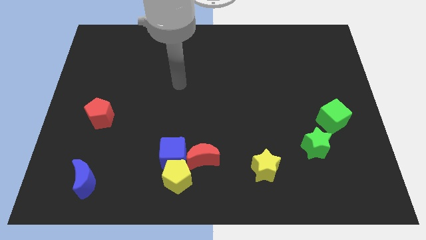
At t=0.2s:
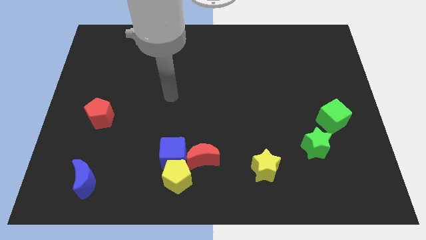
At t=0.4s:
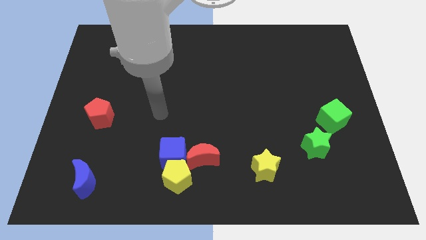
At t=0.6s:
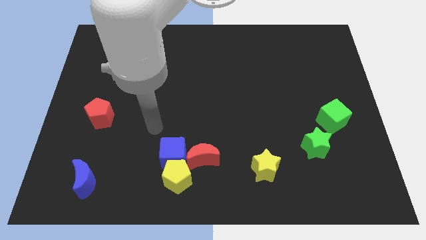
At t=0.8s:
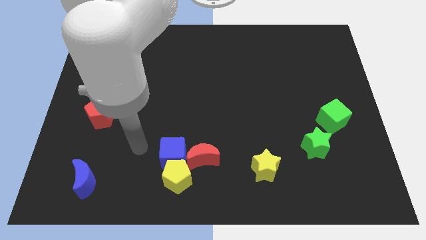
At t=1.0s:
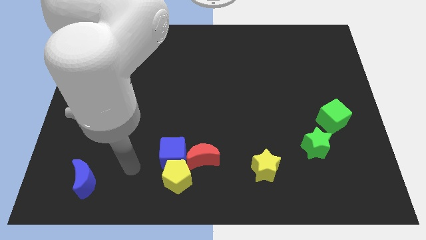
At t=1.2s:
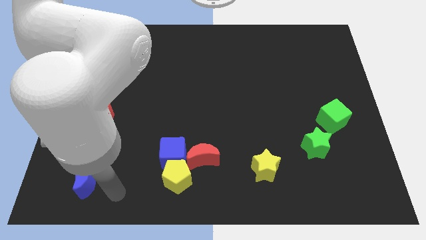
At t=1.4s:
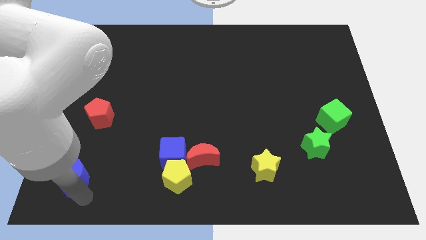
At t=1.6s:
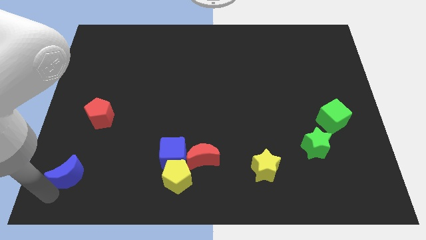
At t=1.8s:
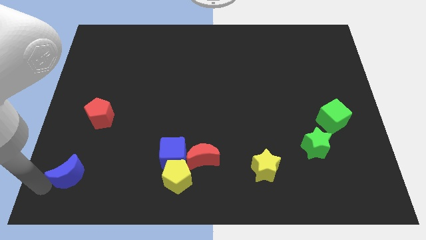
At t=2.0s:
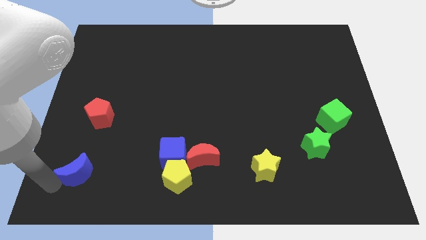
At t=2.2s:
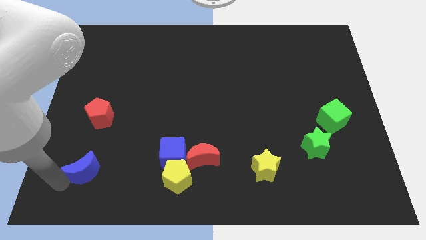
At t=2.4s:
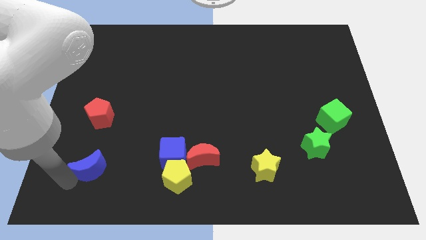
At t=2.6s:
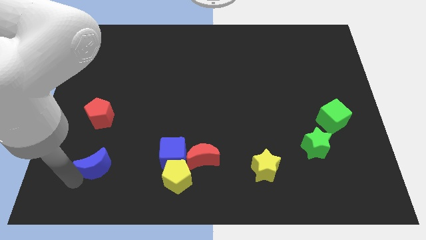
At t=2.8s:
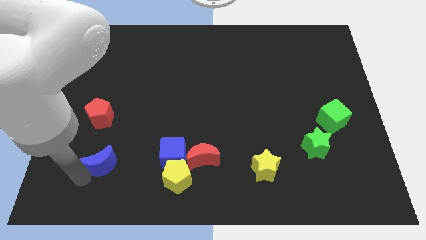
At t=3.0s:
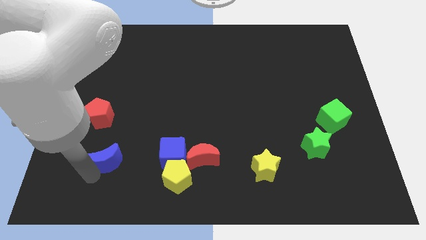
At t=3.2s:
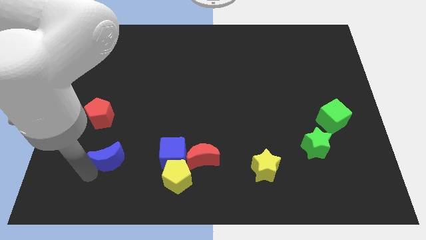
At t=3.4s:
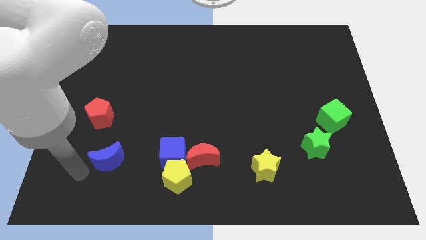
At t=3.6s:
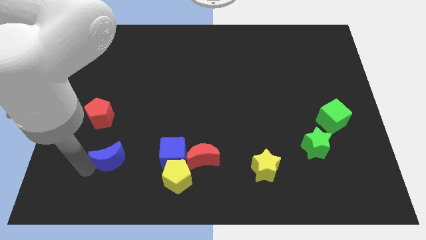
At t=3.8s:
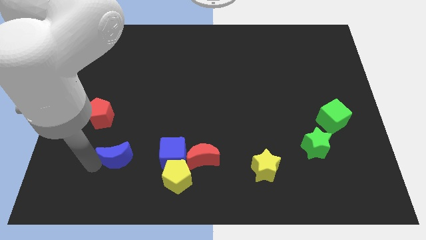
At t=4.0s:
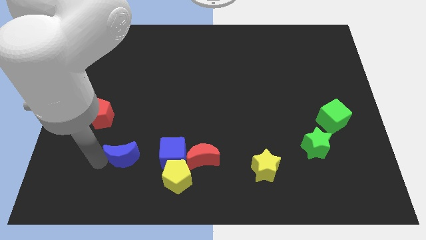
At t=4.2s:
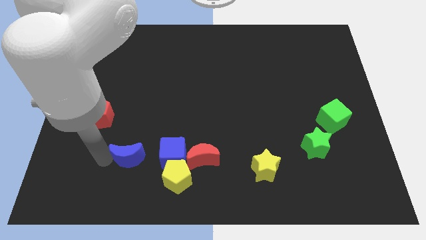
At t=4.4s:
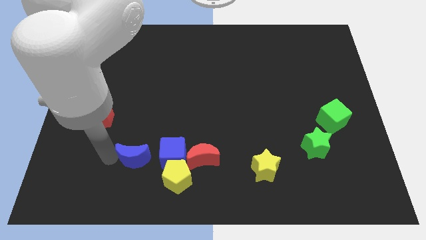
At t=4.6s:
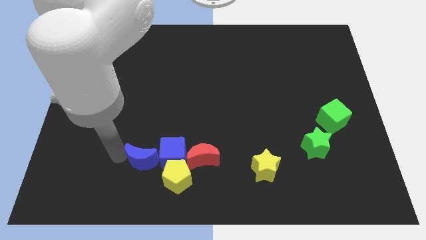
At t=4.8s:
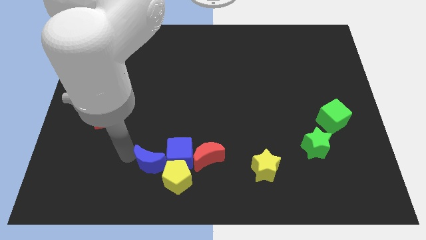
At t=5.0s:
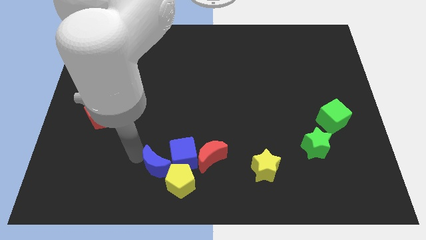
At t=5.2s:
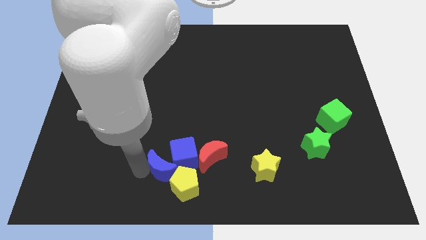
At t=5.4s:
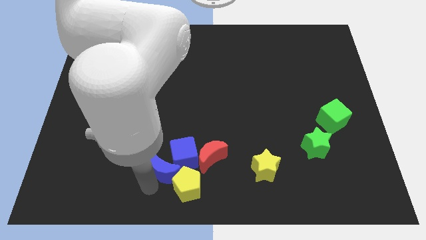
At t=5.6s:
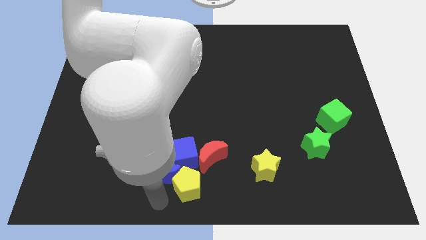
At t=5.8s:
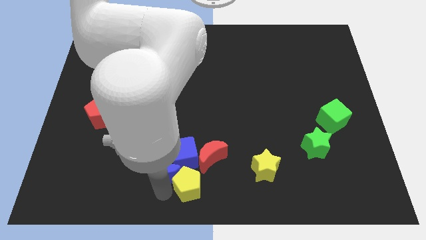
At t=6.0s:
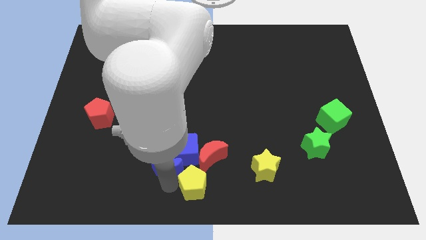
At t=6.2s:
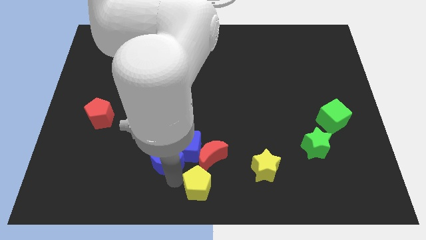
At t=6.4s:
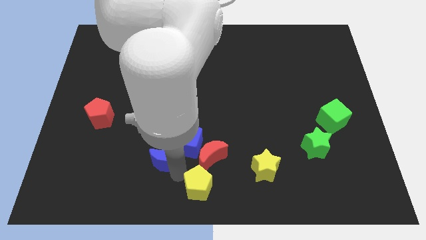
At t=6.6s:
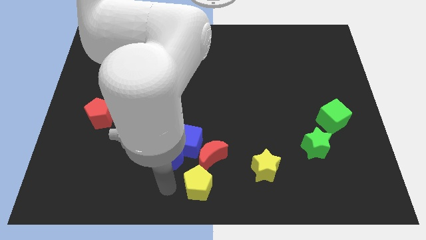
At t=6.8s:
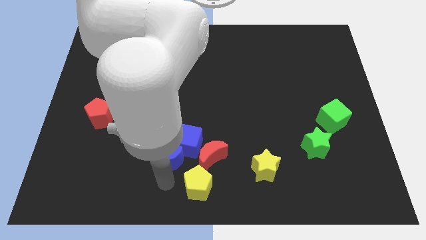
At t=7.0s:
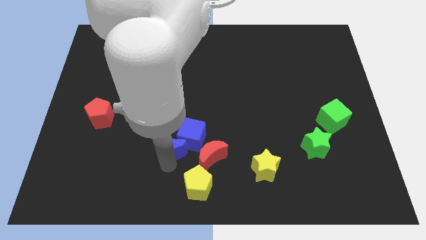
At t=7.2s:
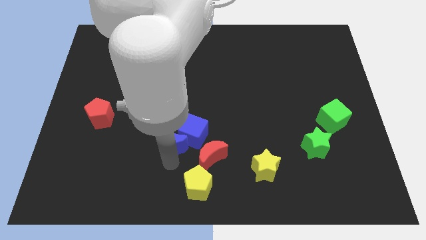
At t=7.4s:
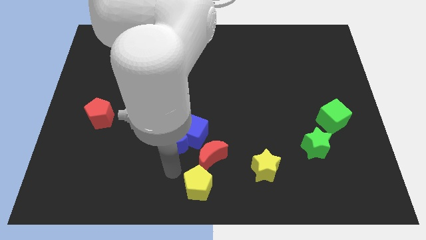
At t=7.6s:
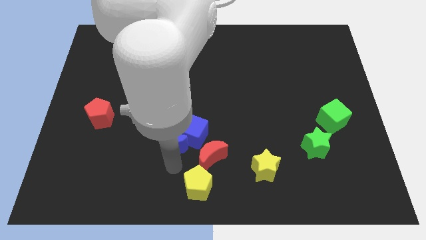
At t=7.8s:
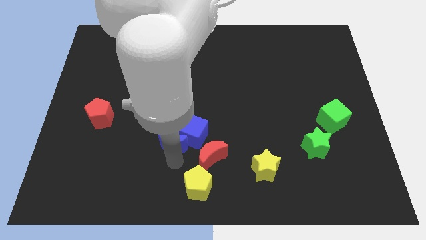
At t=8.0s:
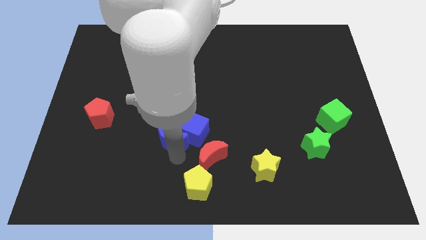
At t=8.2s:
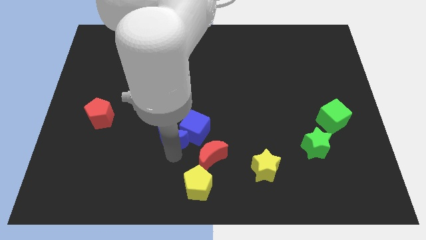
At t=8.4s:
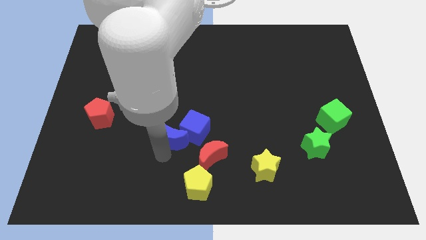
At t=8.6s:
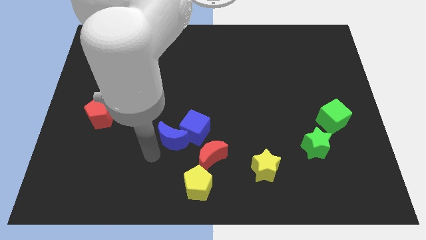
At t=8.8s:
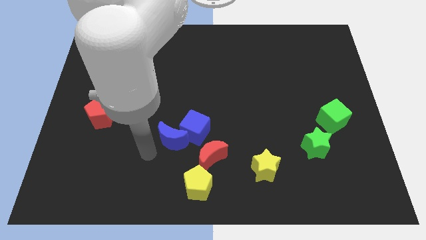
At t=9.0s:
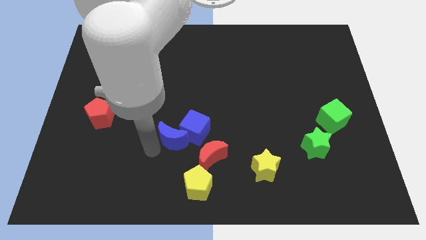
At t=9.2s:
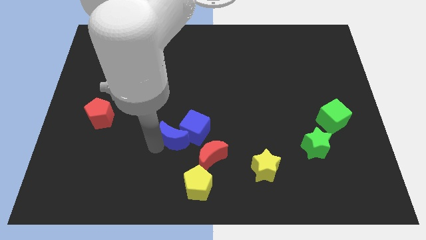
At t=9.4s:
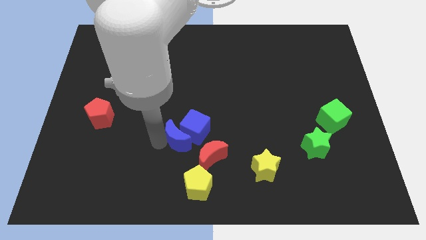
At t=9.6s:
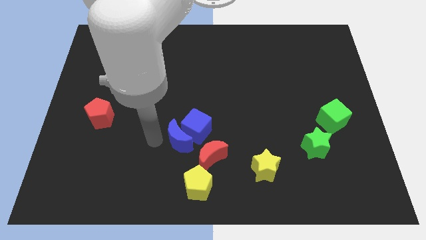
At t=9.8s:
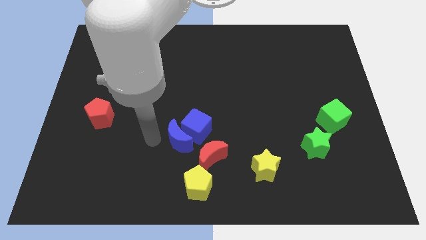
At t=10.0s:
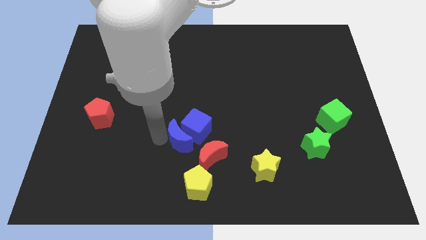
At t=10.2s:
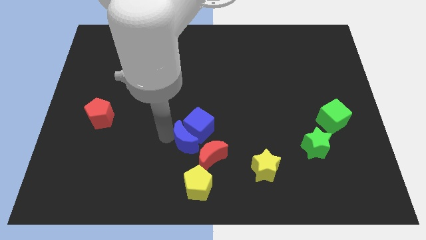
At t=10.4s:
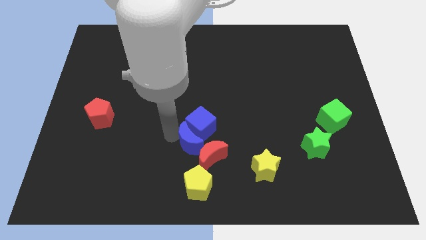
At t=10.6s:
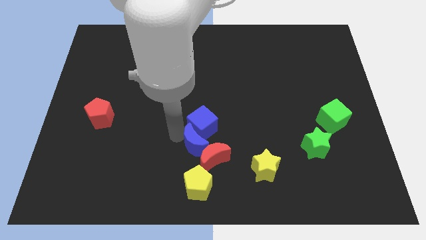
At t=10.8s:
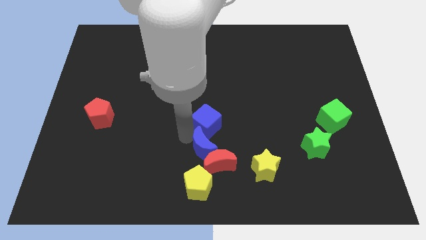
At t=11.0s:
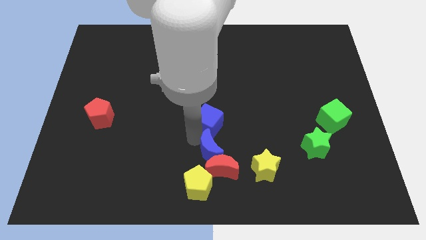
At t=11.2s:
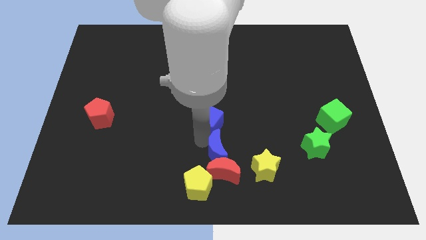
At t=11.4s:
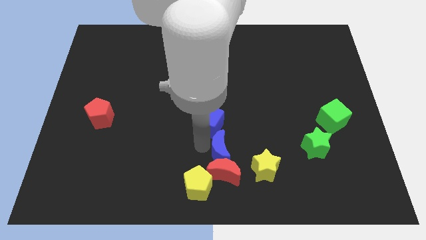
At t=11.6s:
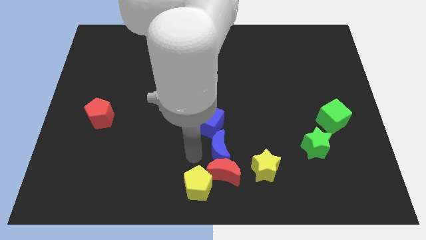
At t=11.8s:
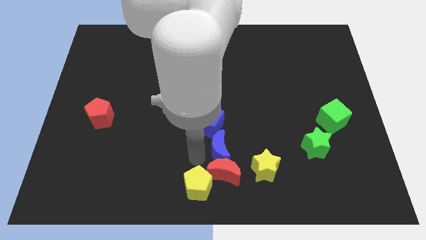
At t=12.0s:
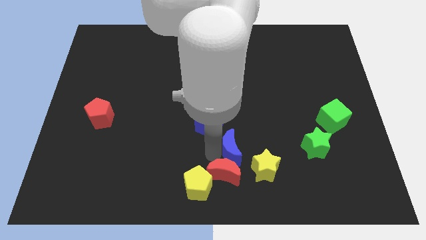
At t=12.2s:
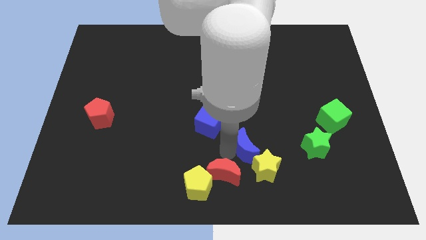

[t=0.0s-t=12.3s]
move the blue moon left of the green star

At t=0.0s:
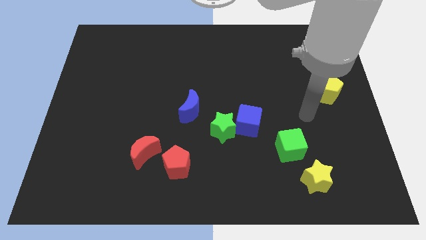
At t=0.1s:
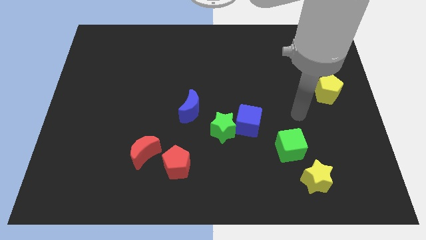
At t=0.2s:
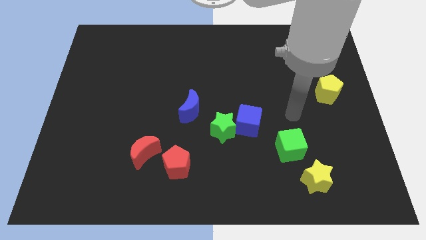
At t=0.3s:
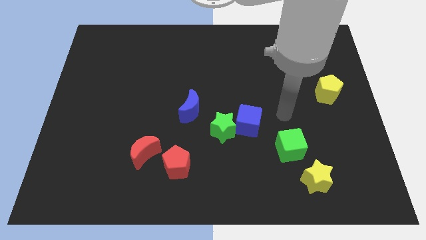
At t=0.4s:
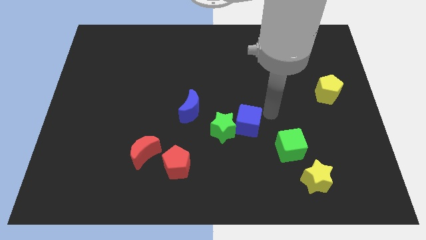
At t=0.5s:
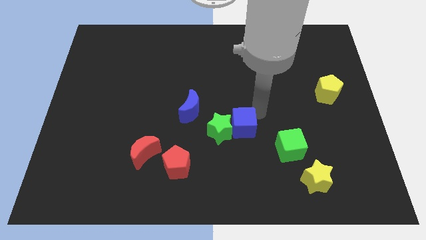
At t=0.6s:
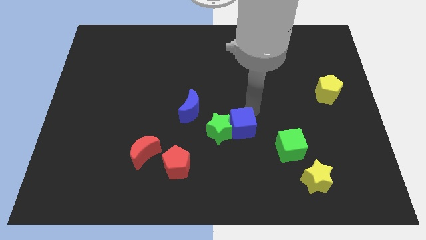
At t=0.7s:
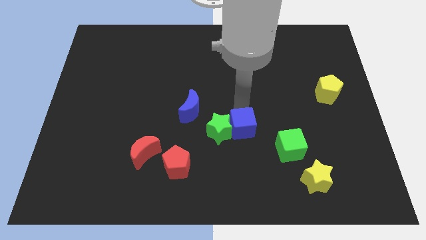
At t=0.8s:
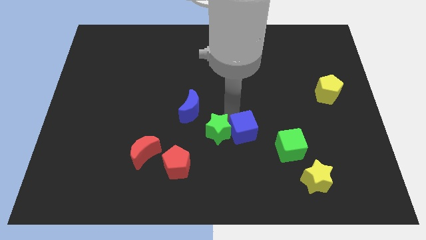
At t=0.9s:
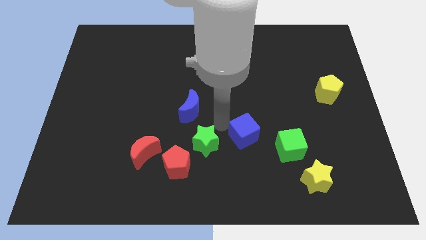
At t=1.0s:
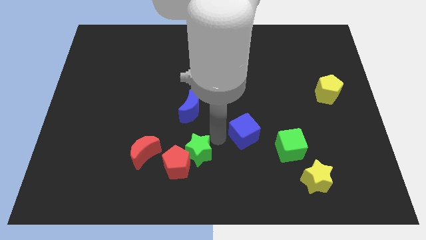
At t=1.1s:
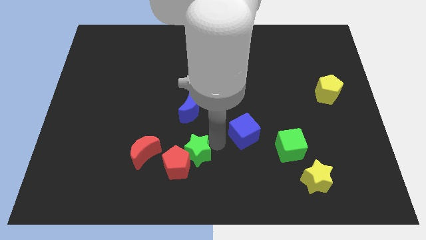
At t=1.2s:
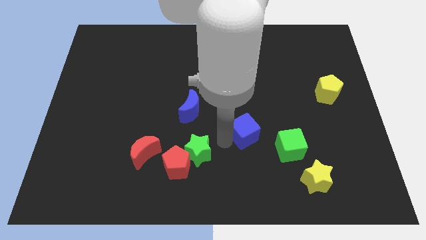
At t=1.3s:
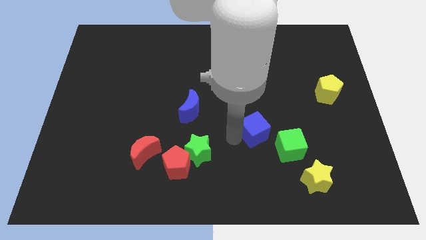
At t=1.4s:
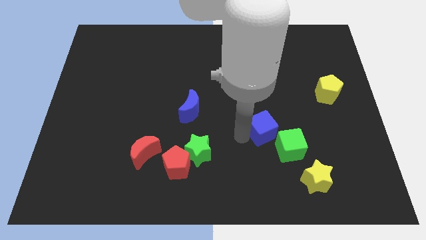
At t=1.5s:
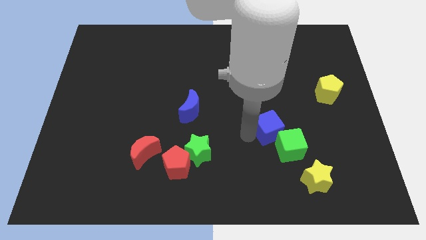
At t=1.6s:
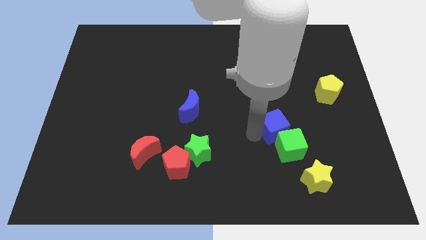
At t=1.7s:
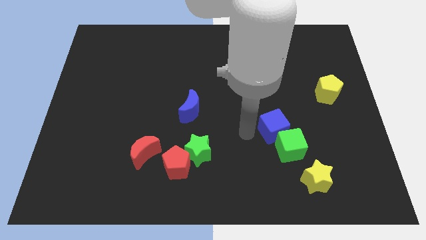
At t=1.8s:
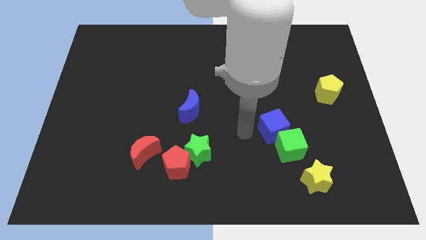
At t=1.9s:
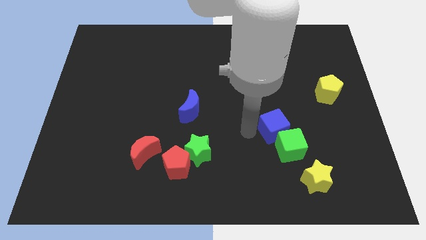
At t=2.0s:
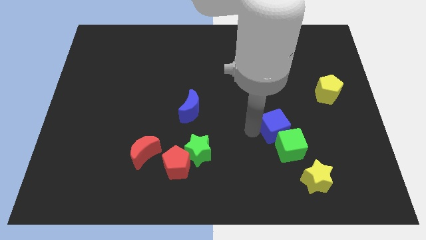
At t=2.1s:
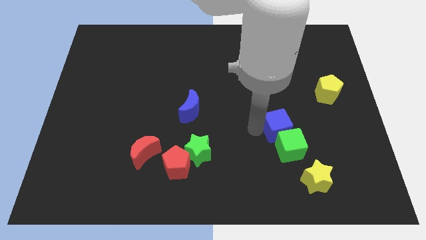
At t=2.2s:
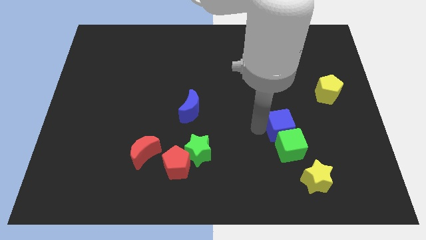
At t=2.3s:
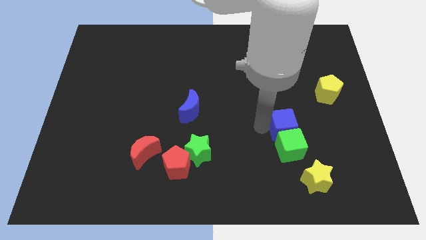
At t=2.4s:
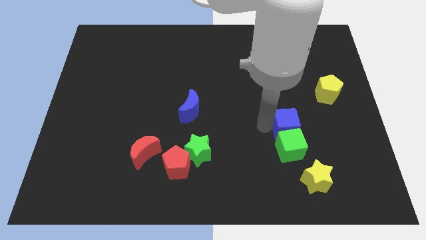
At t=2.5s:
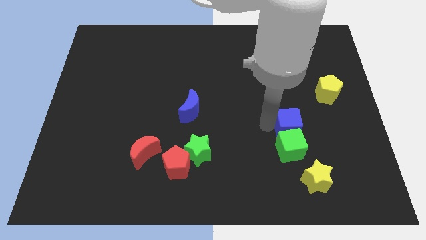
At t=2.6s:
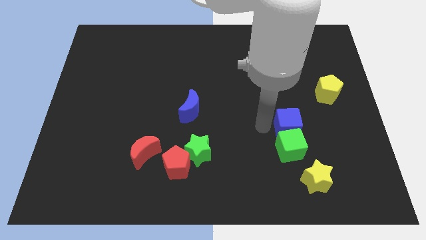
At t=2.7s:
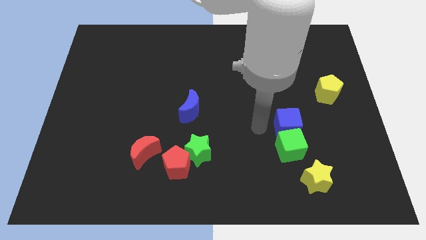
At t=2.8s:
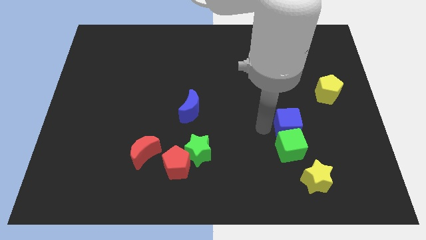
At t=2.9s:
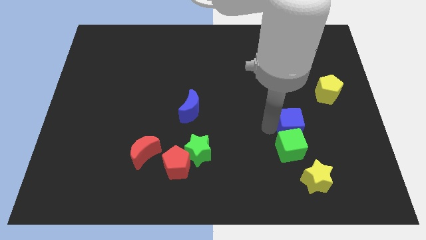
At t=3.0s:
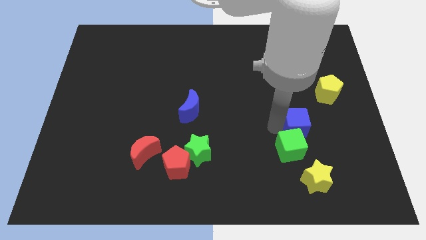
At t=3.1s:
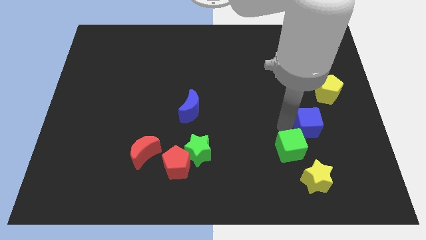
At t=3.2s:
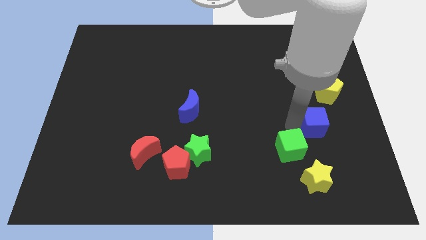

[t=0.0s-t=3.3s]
slide the blue cube to the bottom side of the yellow pentagon
